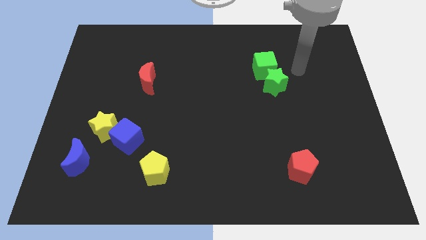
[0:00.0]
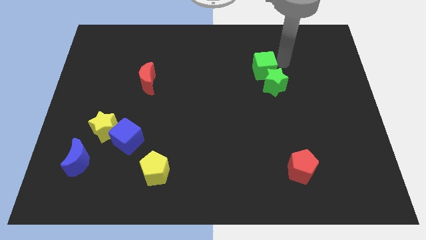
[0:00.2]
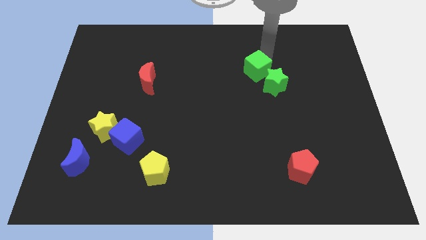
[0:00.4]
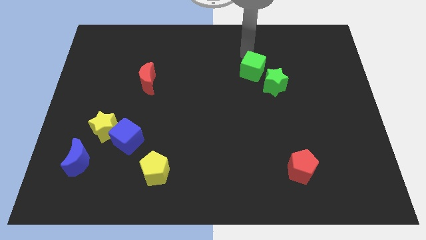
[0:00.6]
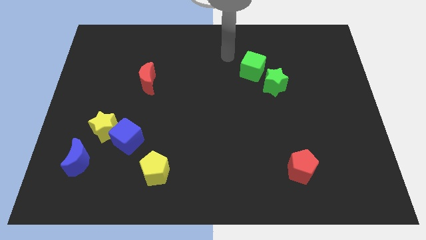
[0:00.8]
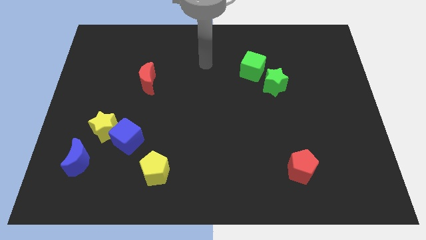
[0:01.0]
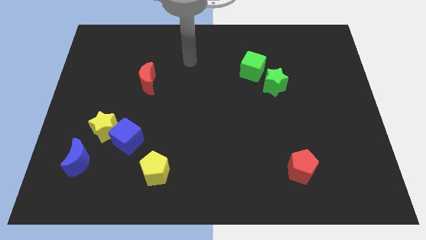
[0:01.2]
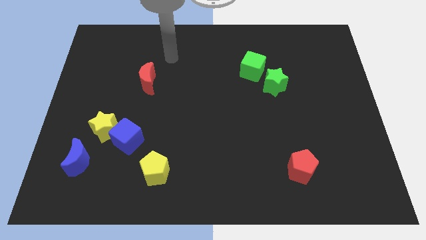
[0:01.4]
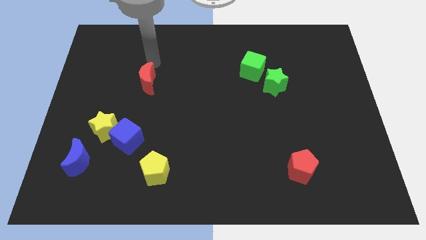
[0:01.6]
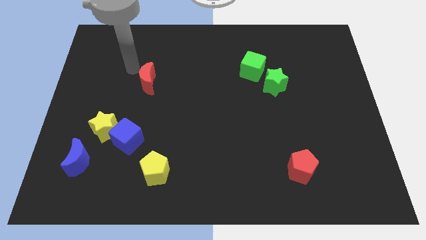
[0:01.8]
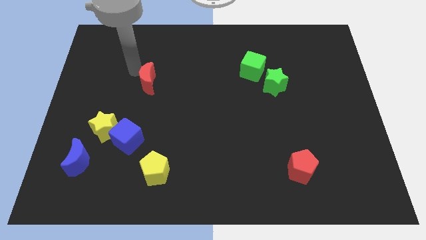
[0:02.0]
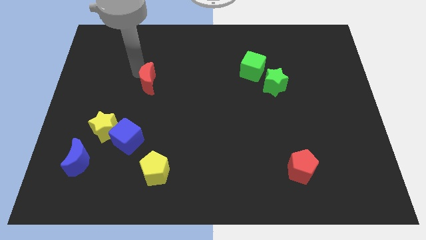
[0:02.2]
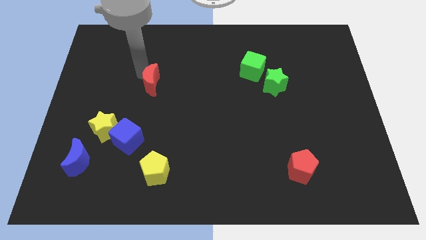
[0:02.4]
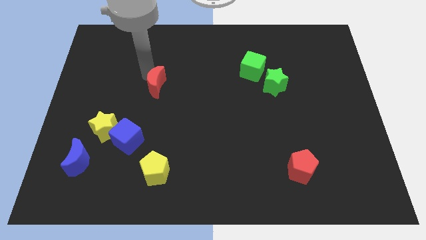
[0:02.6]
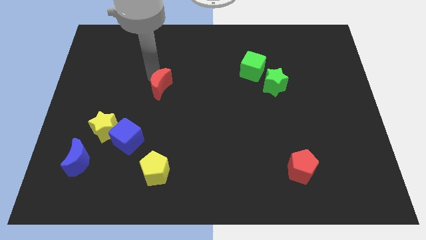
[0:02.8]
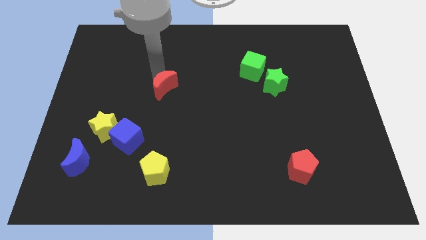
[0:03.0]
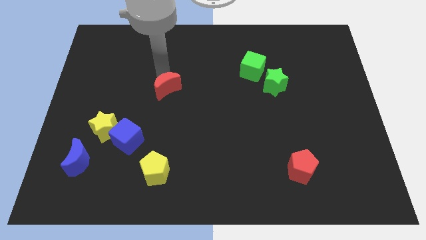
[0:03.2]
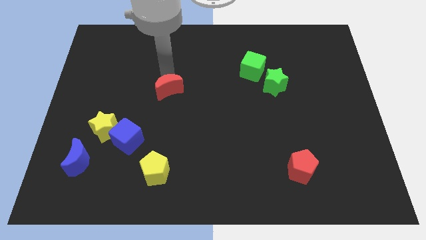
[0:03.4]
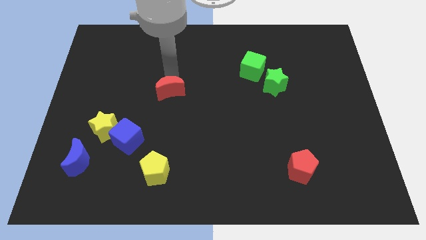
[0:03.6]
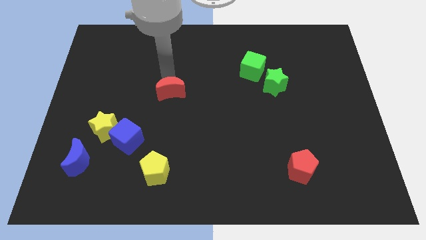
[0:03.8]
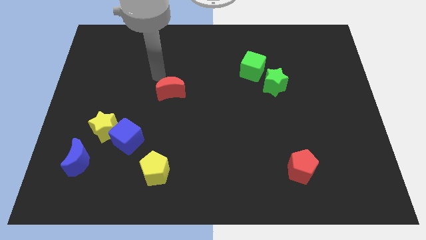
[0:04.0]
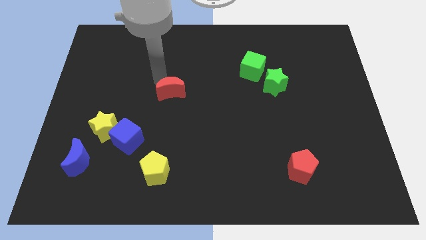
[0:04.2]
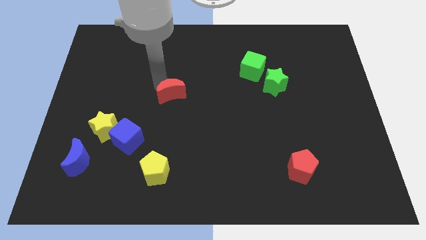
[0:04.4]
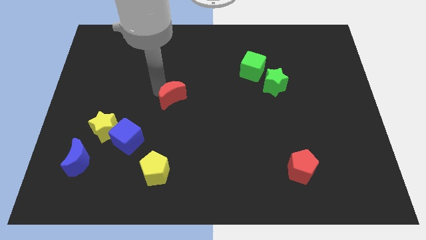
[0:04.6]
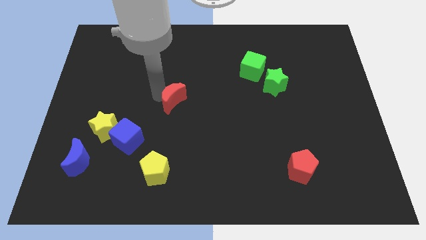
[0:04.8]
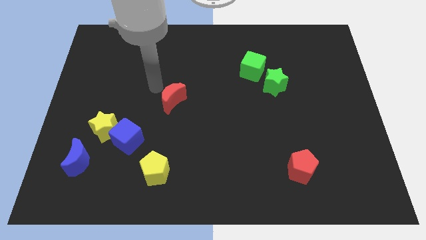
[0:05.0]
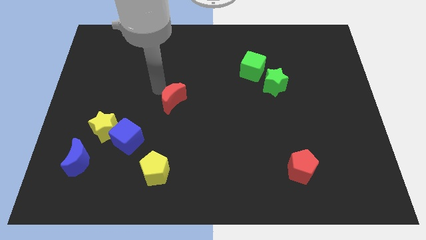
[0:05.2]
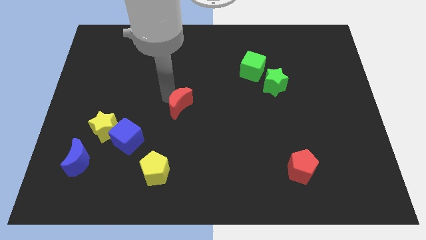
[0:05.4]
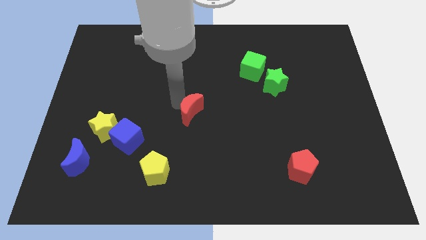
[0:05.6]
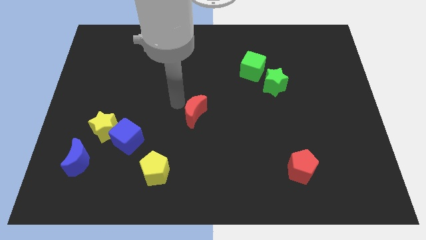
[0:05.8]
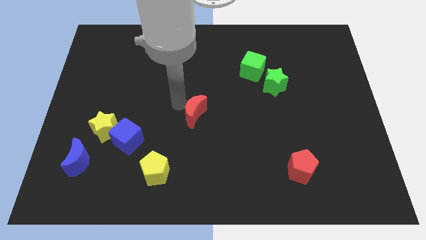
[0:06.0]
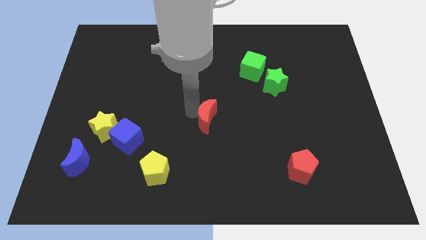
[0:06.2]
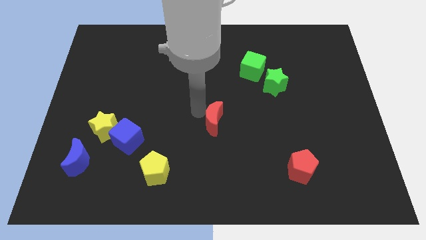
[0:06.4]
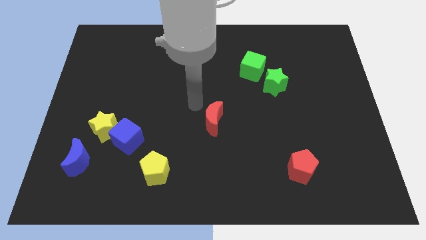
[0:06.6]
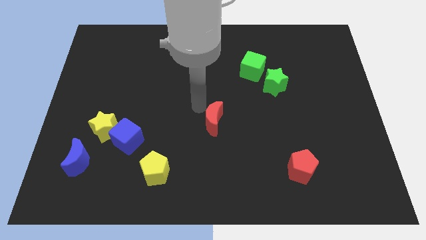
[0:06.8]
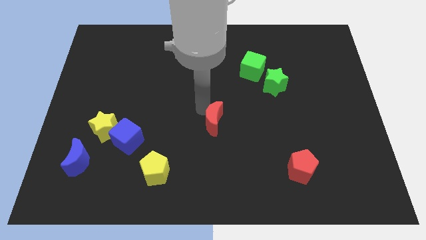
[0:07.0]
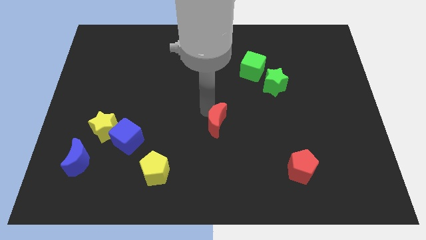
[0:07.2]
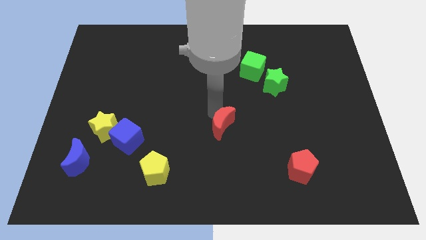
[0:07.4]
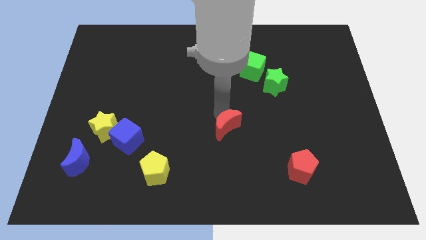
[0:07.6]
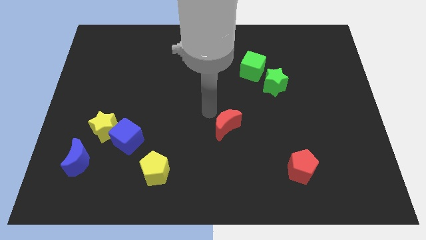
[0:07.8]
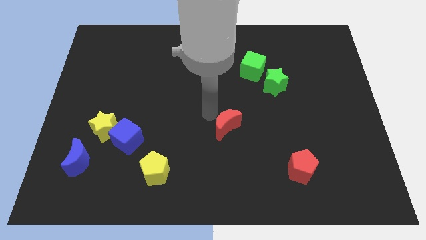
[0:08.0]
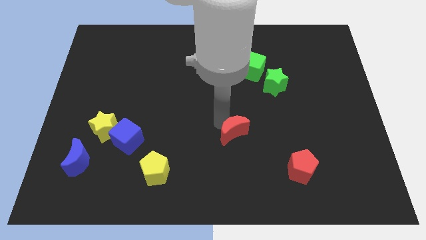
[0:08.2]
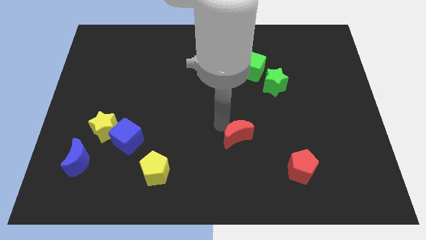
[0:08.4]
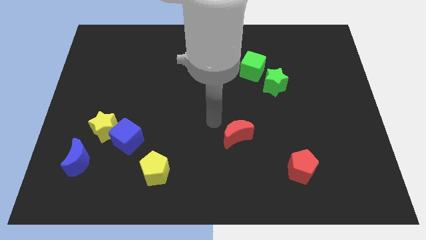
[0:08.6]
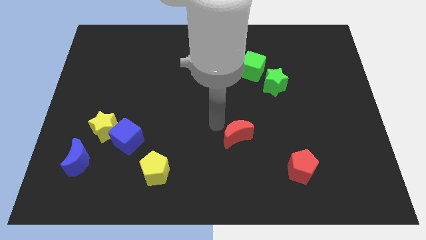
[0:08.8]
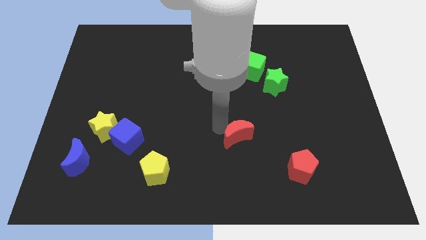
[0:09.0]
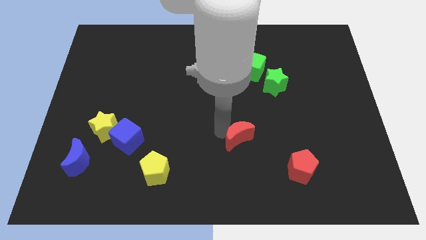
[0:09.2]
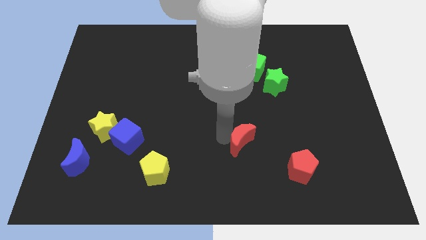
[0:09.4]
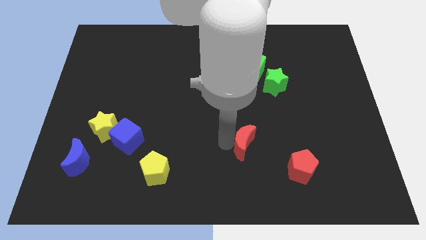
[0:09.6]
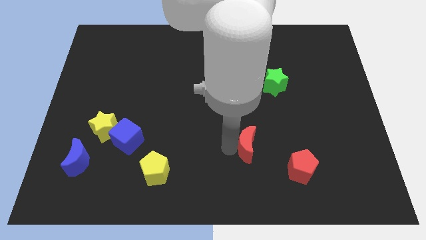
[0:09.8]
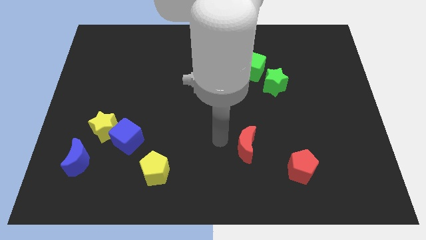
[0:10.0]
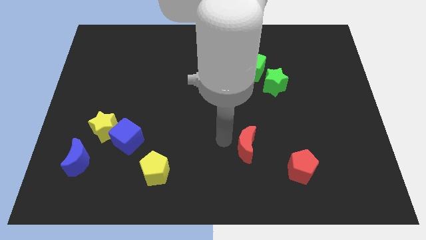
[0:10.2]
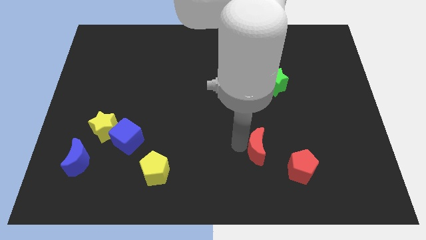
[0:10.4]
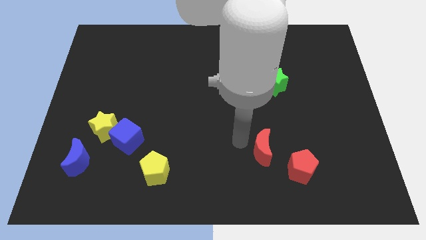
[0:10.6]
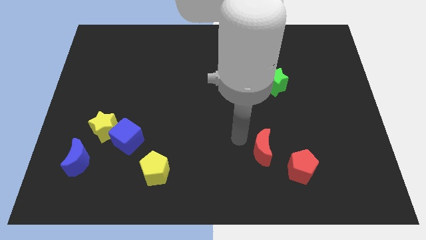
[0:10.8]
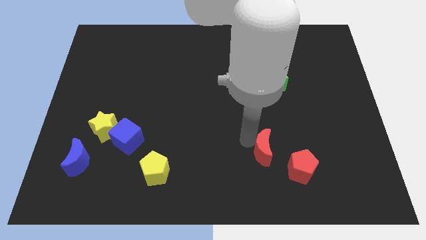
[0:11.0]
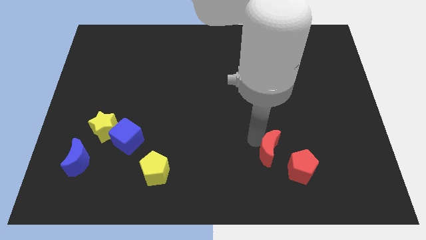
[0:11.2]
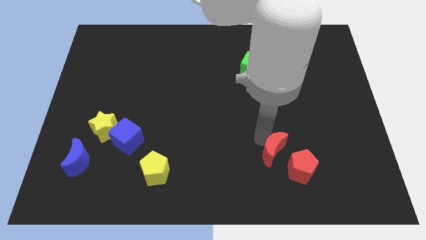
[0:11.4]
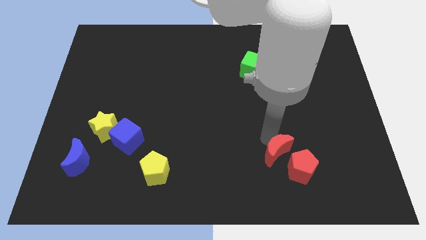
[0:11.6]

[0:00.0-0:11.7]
push the red moon next to the red pentagon
